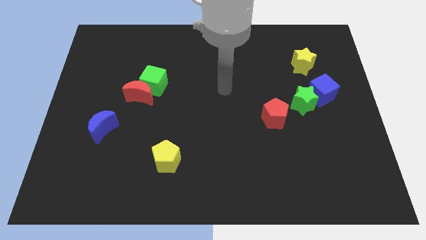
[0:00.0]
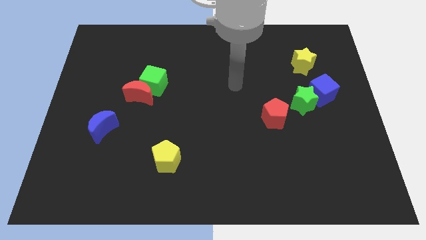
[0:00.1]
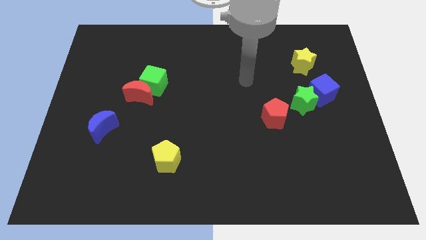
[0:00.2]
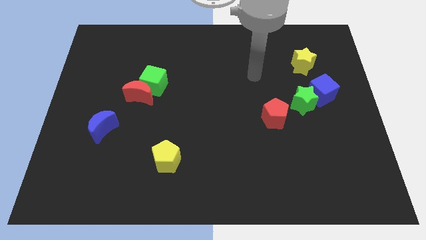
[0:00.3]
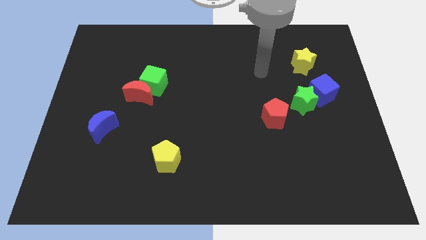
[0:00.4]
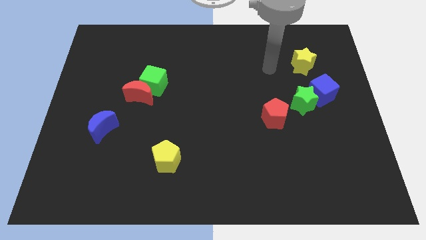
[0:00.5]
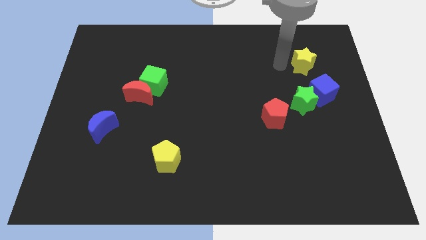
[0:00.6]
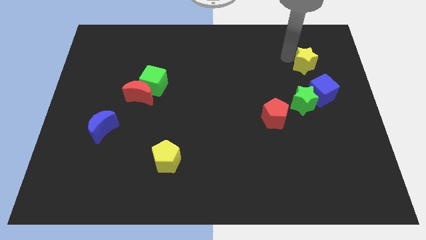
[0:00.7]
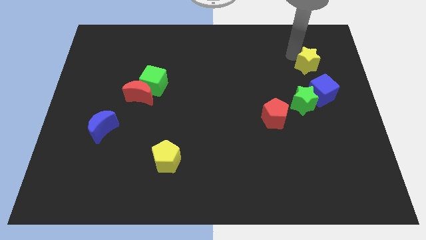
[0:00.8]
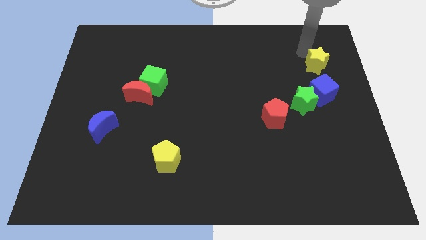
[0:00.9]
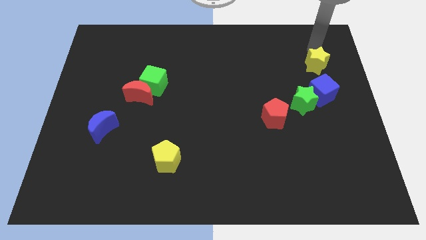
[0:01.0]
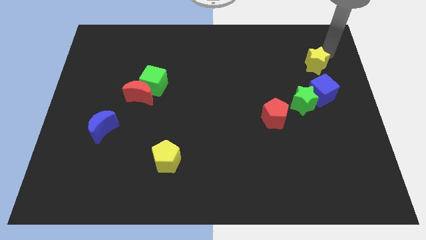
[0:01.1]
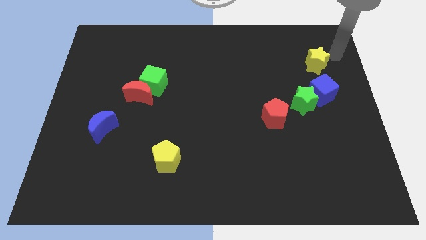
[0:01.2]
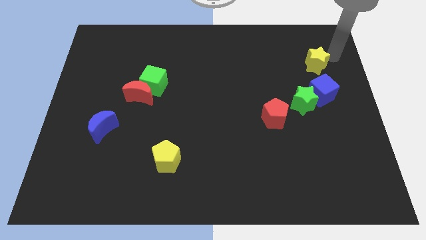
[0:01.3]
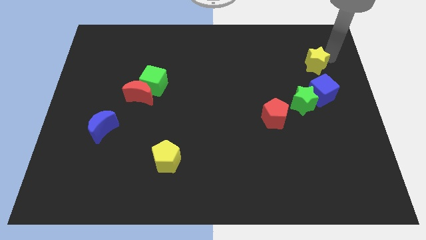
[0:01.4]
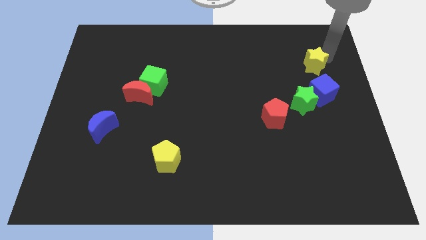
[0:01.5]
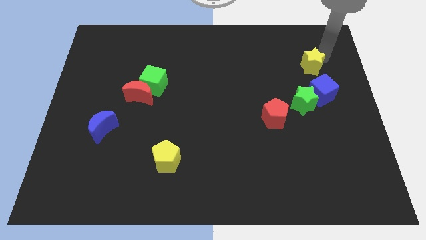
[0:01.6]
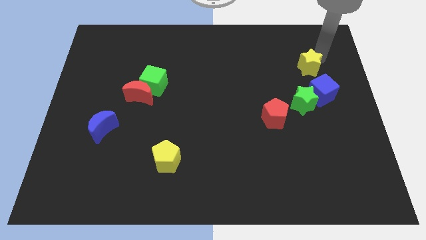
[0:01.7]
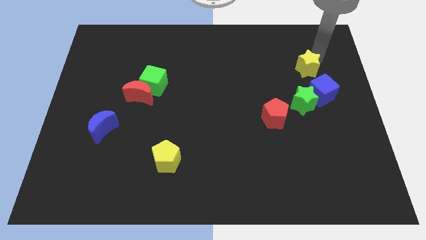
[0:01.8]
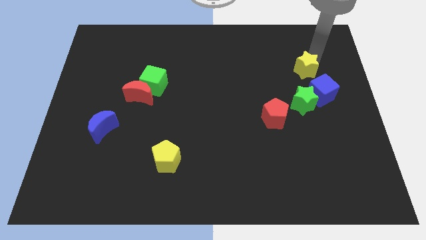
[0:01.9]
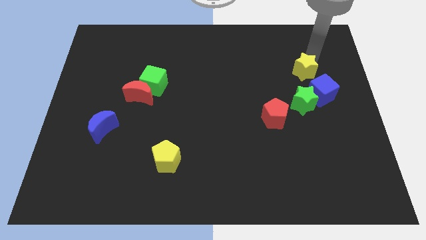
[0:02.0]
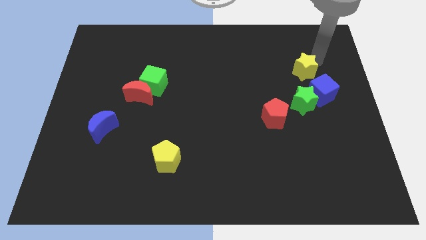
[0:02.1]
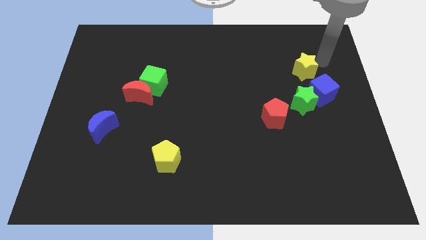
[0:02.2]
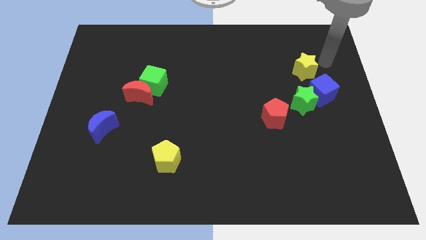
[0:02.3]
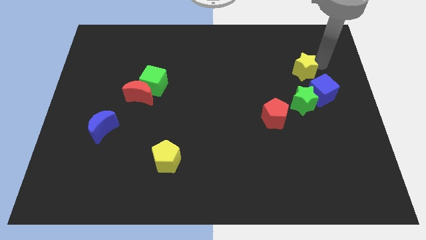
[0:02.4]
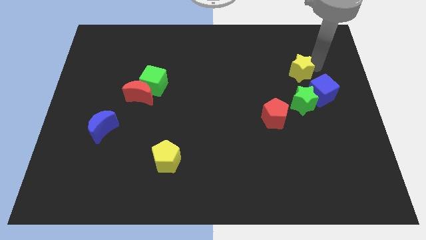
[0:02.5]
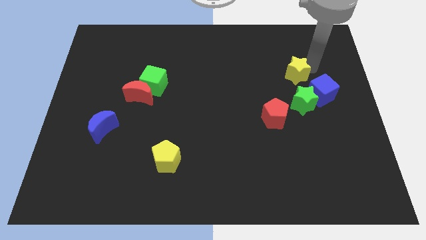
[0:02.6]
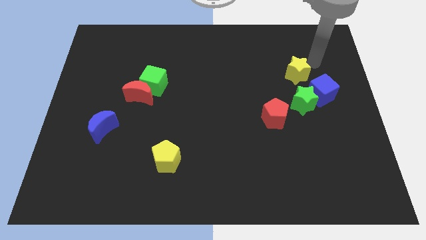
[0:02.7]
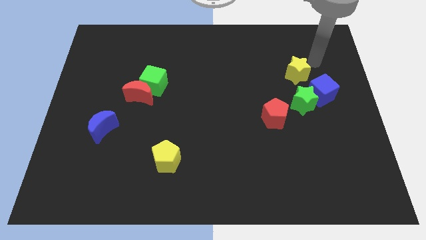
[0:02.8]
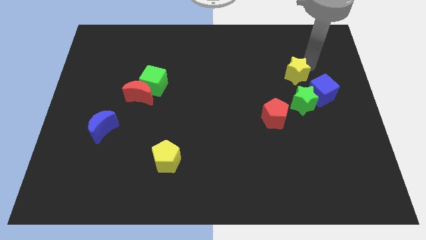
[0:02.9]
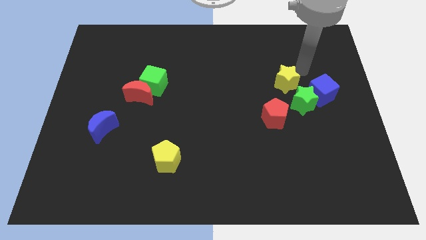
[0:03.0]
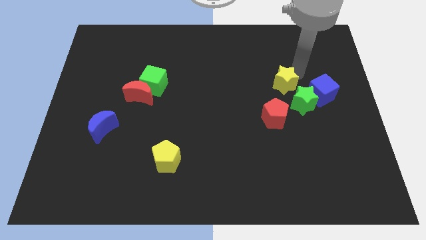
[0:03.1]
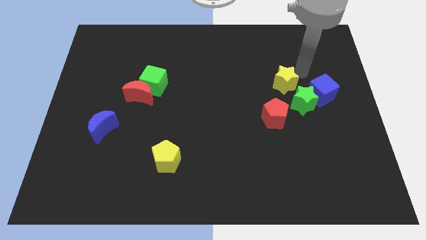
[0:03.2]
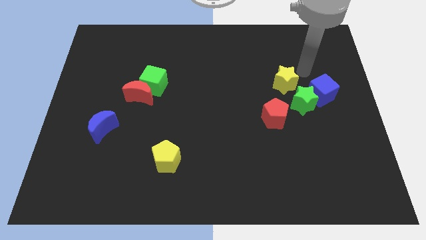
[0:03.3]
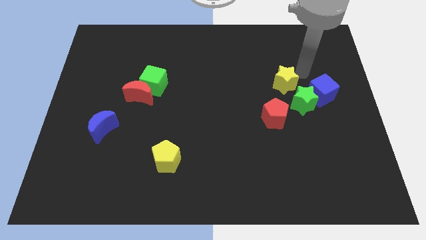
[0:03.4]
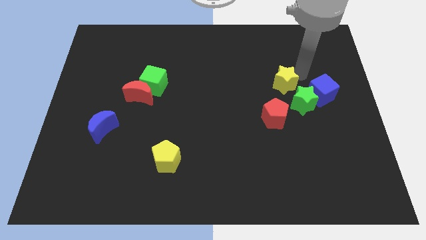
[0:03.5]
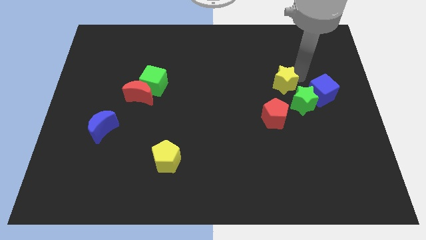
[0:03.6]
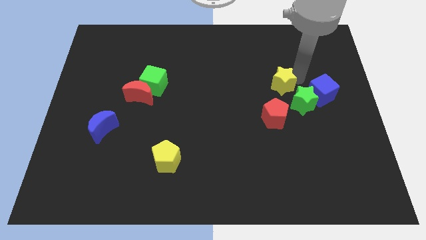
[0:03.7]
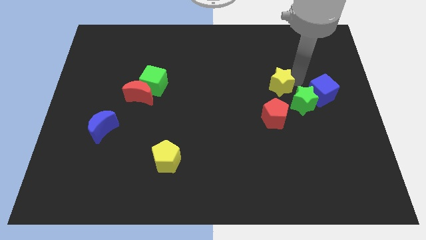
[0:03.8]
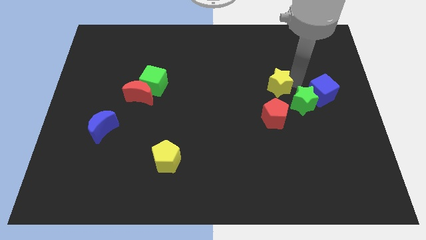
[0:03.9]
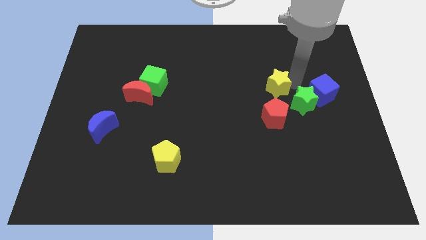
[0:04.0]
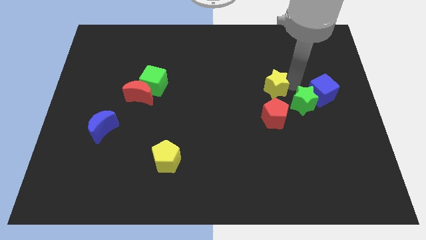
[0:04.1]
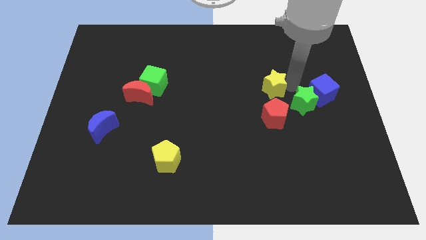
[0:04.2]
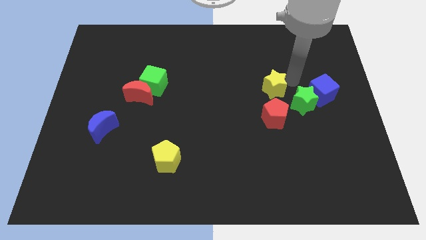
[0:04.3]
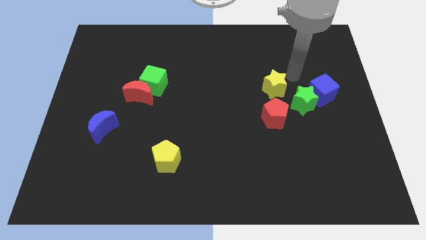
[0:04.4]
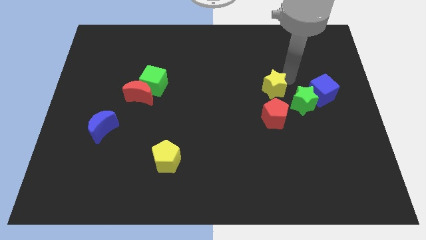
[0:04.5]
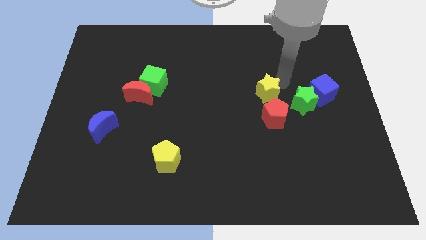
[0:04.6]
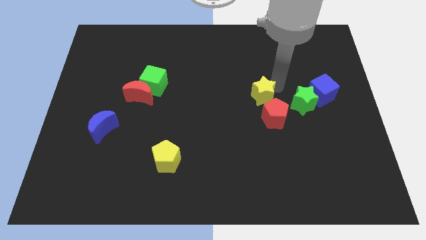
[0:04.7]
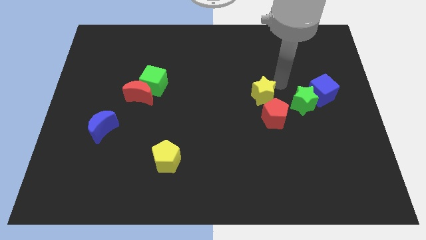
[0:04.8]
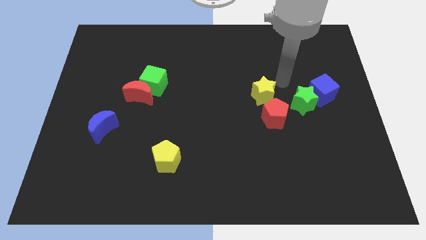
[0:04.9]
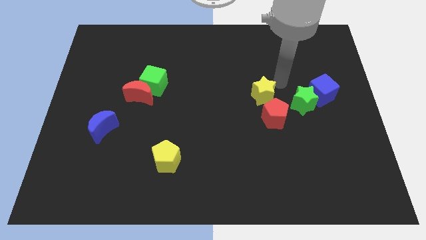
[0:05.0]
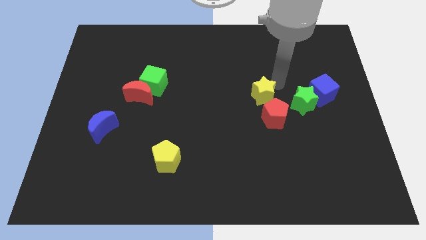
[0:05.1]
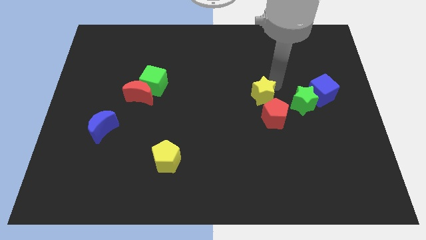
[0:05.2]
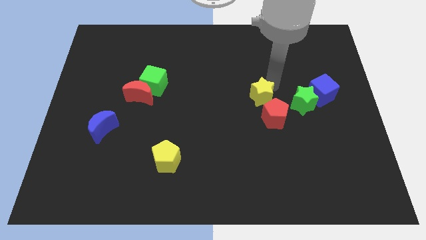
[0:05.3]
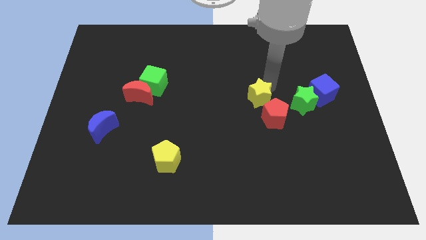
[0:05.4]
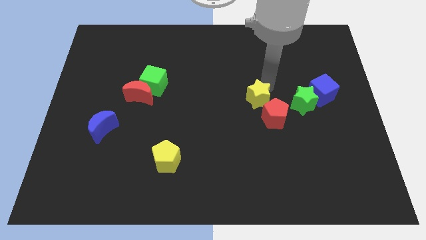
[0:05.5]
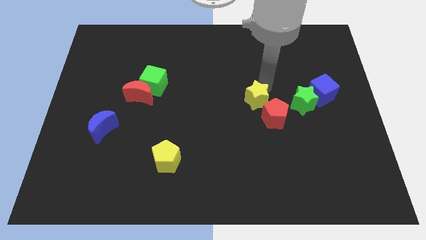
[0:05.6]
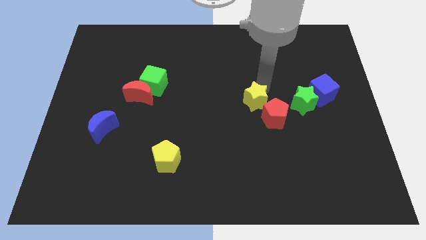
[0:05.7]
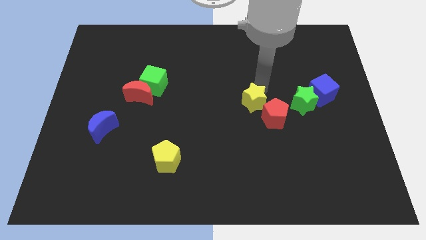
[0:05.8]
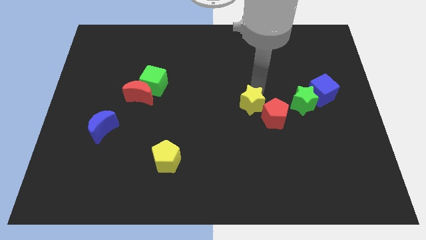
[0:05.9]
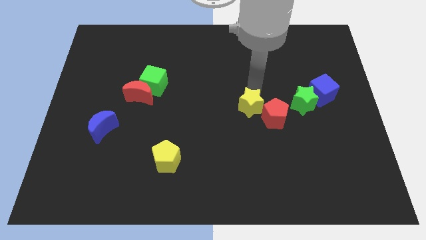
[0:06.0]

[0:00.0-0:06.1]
push the yellow star down and to the left

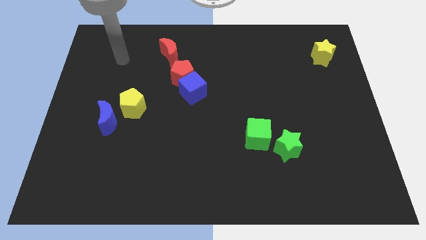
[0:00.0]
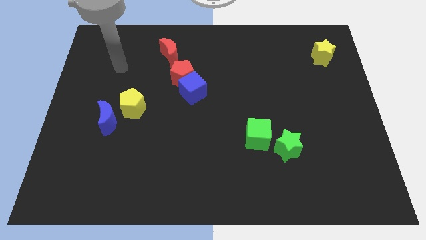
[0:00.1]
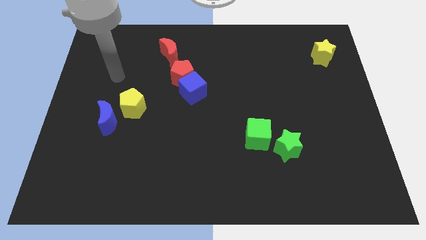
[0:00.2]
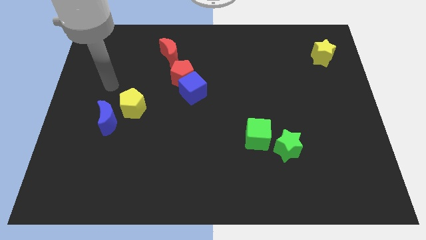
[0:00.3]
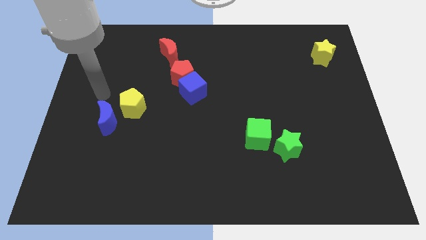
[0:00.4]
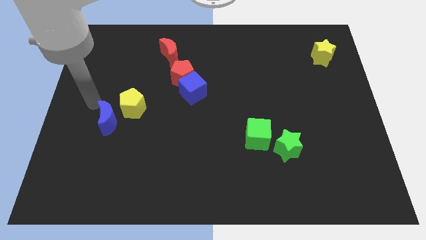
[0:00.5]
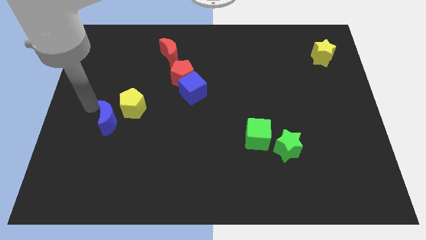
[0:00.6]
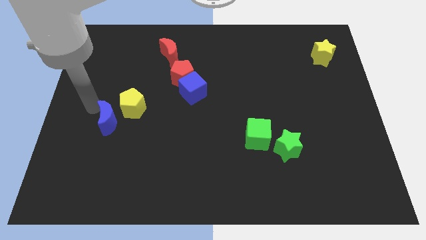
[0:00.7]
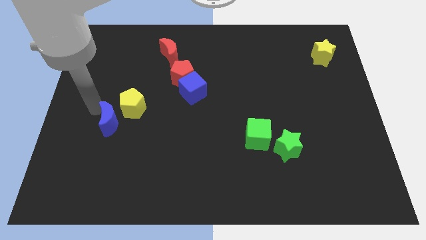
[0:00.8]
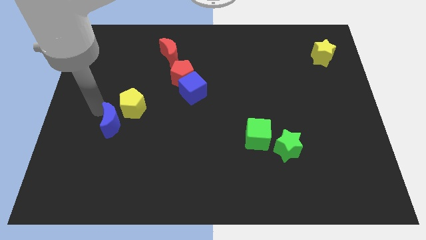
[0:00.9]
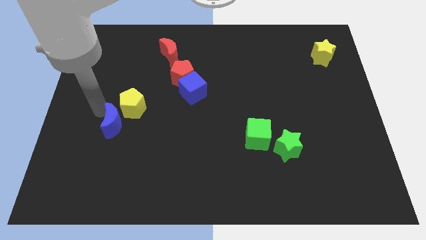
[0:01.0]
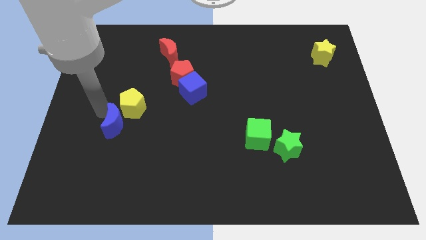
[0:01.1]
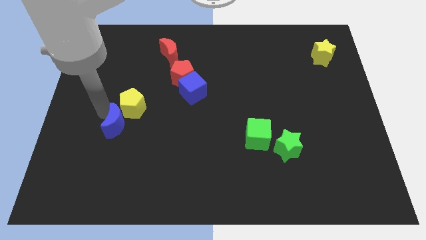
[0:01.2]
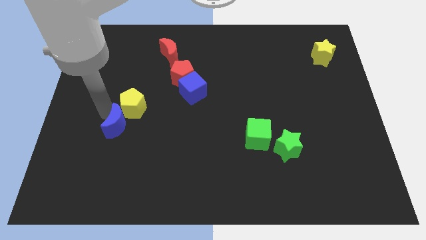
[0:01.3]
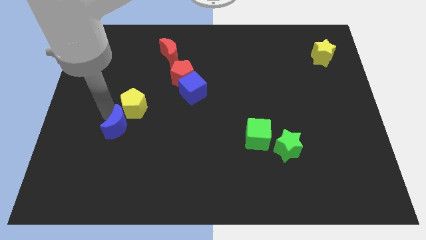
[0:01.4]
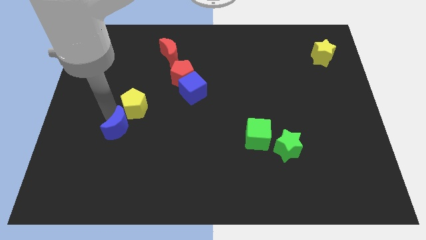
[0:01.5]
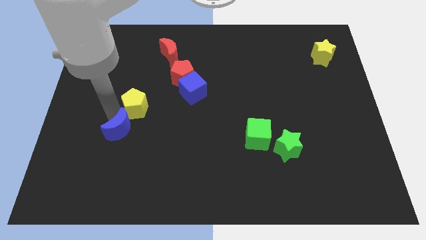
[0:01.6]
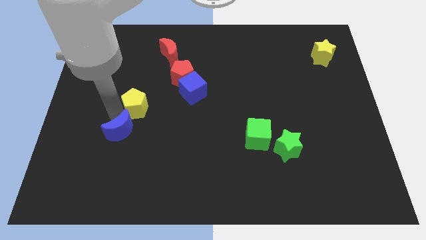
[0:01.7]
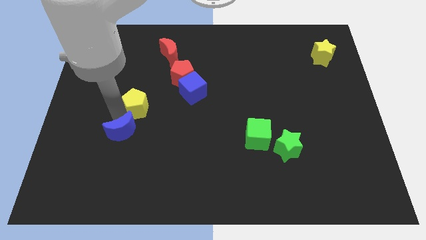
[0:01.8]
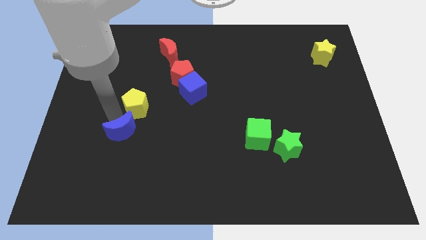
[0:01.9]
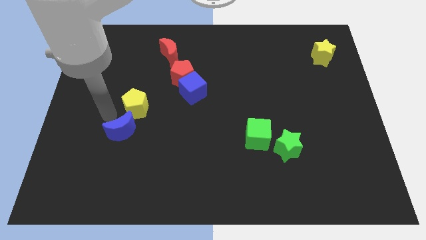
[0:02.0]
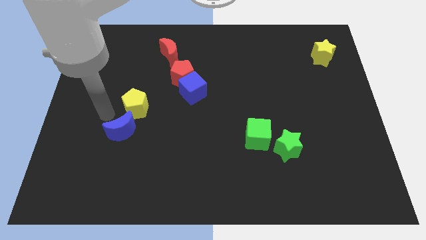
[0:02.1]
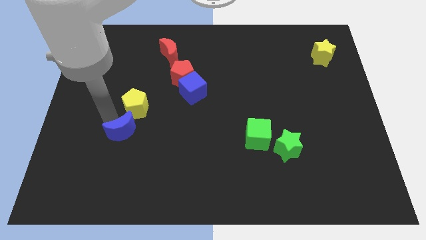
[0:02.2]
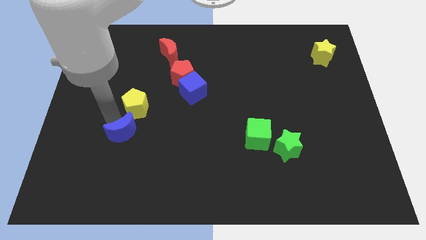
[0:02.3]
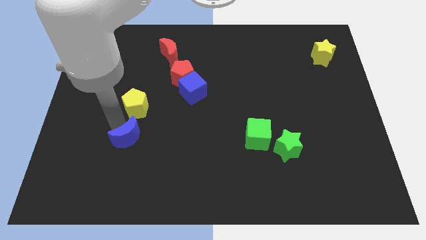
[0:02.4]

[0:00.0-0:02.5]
push the blue moon slightly down and right diagonally
